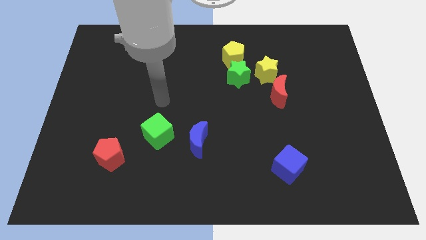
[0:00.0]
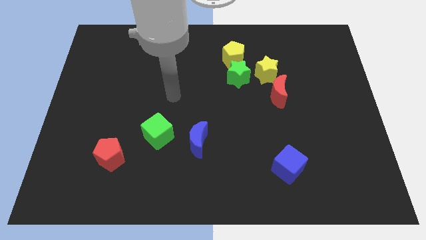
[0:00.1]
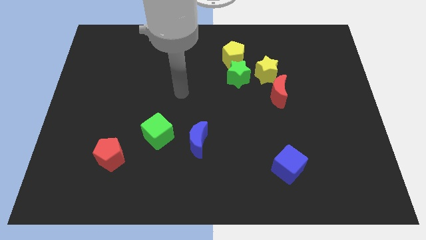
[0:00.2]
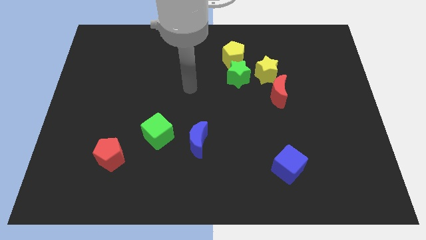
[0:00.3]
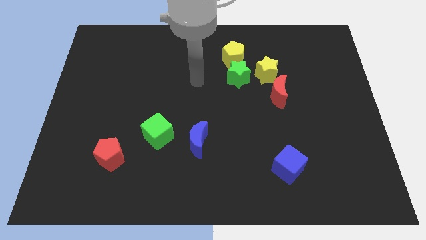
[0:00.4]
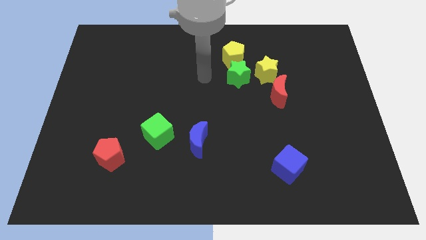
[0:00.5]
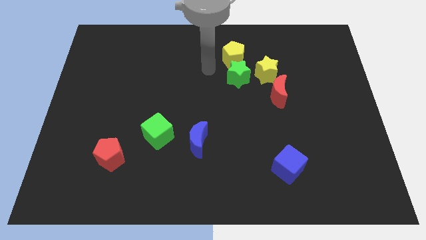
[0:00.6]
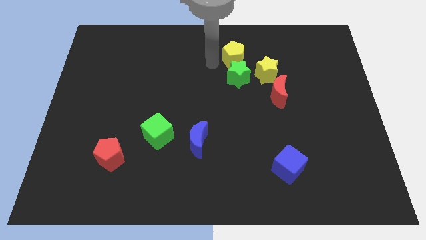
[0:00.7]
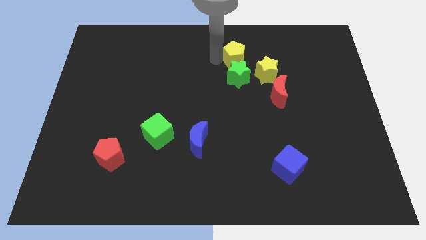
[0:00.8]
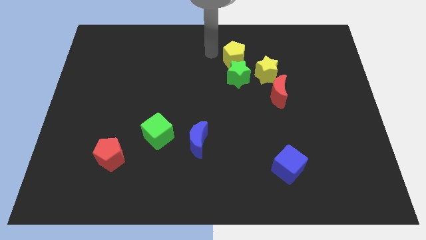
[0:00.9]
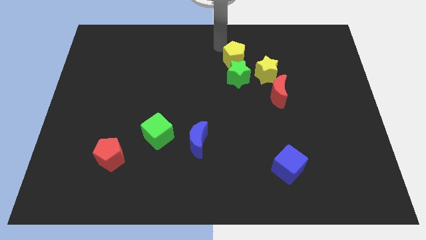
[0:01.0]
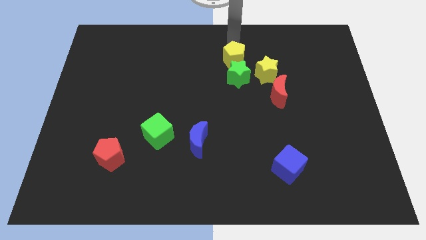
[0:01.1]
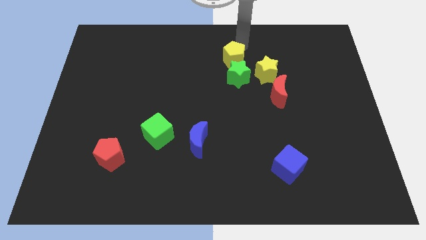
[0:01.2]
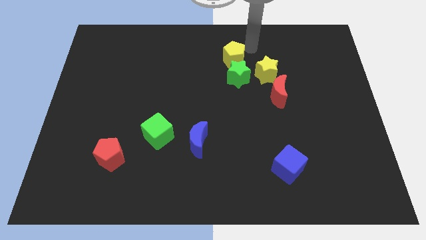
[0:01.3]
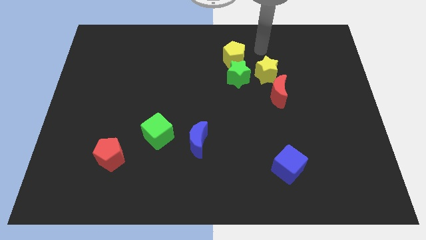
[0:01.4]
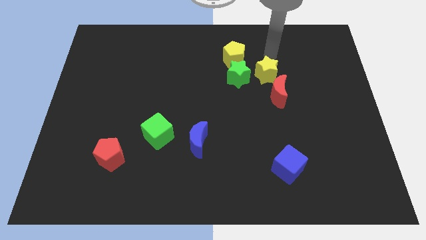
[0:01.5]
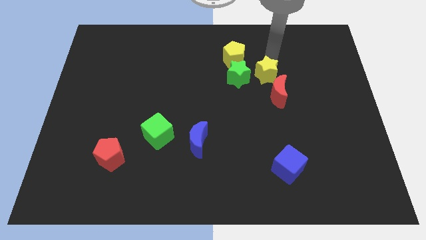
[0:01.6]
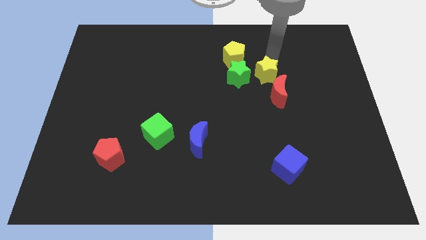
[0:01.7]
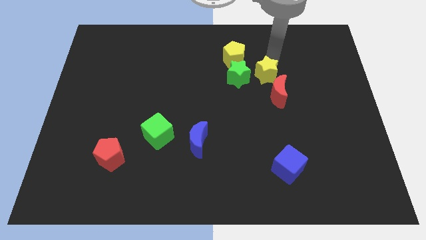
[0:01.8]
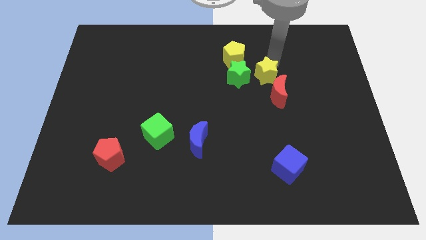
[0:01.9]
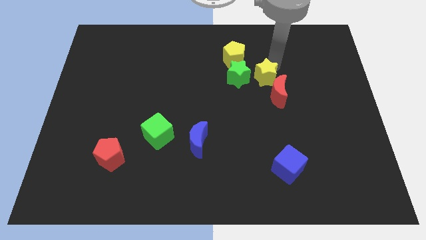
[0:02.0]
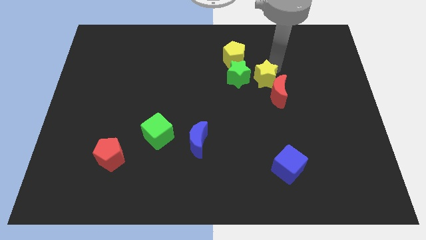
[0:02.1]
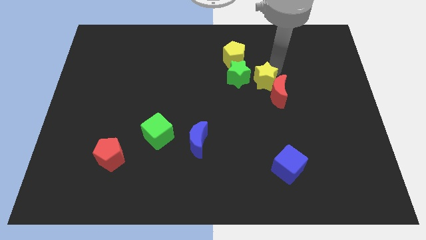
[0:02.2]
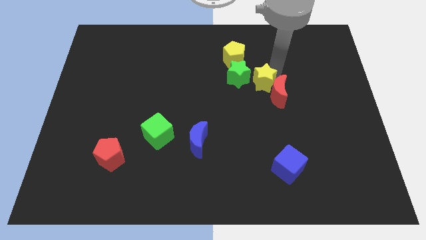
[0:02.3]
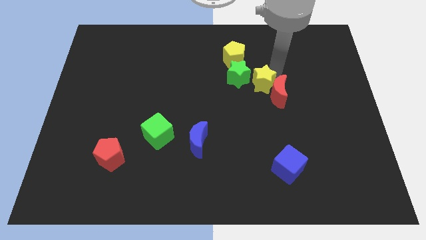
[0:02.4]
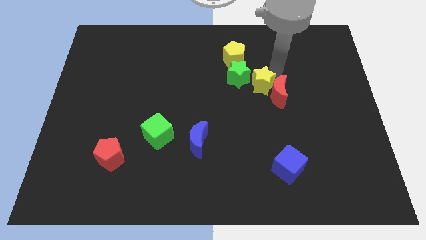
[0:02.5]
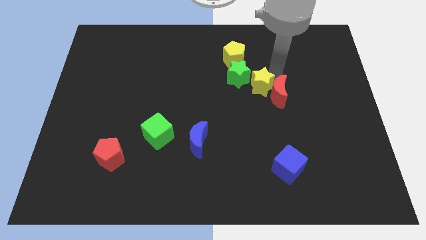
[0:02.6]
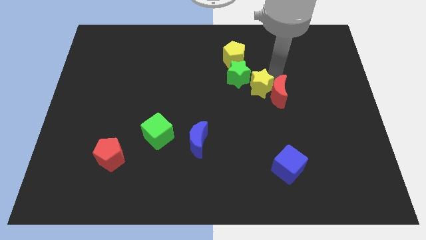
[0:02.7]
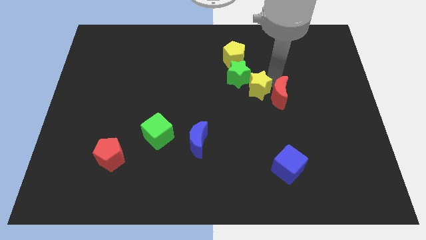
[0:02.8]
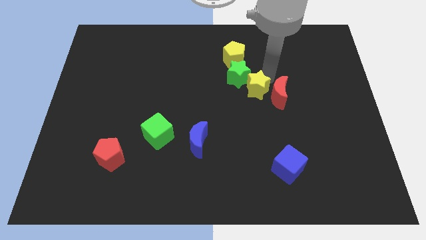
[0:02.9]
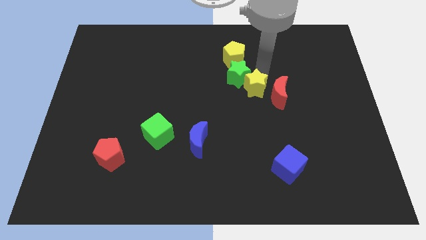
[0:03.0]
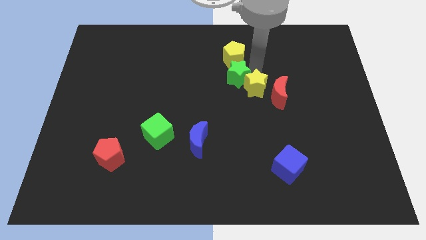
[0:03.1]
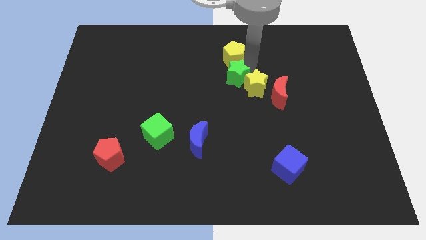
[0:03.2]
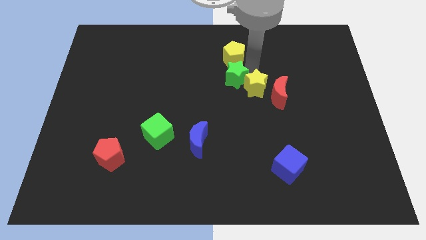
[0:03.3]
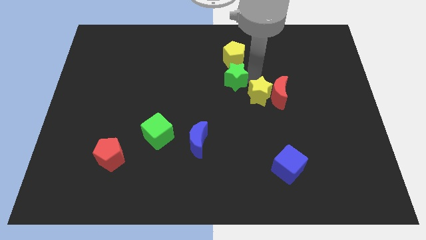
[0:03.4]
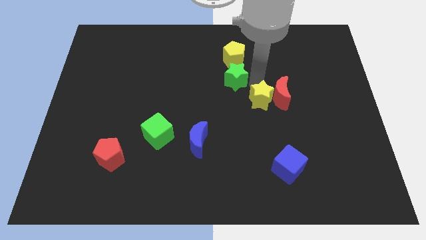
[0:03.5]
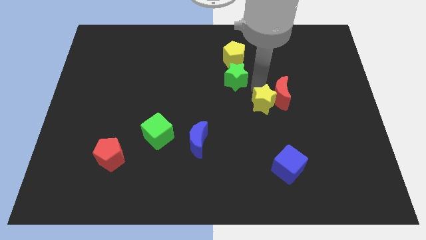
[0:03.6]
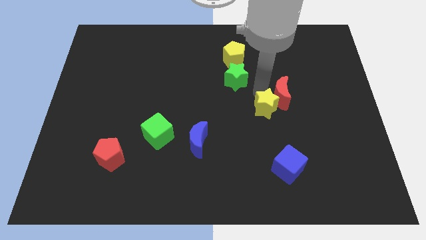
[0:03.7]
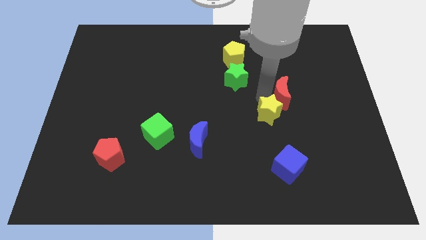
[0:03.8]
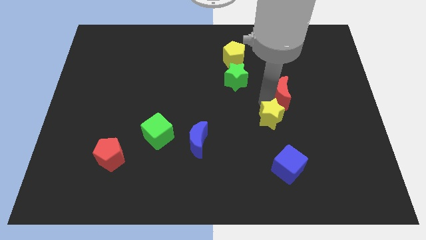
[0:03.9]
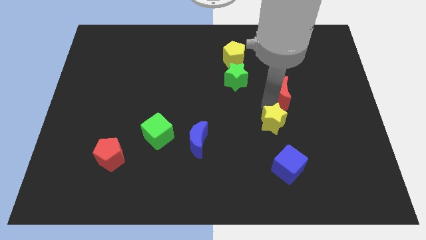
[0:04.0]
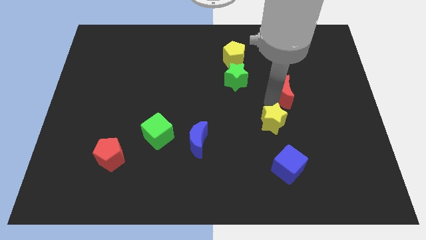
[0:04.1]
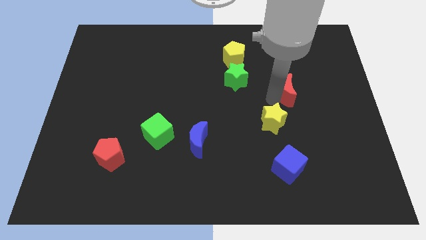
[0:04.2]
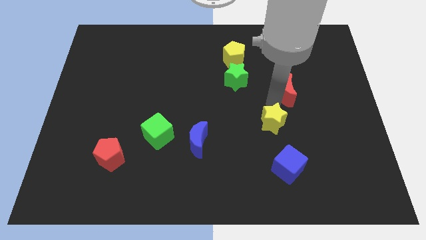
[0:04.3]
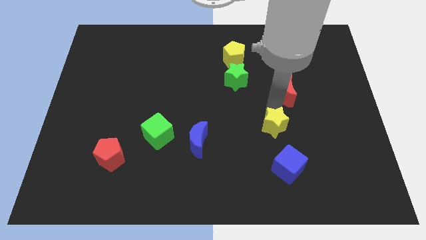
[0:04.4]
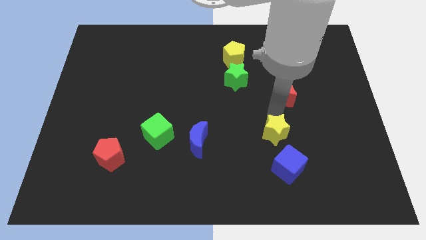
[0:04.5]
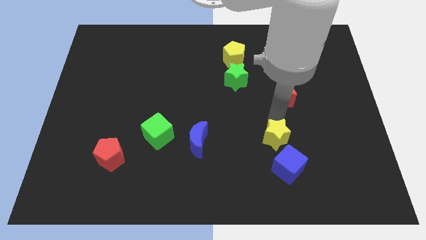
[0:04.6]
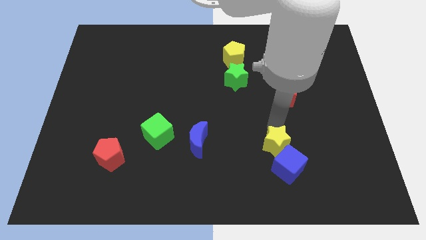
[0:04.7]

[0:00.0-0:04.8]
slide the yellow star next to the blue cube

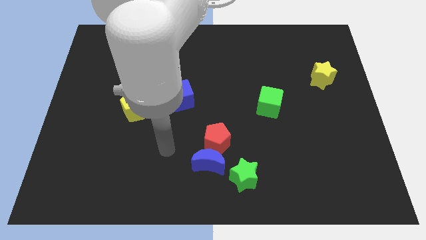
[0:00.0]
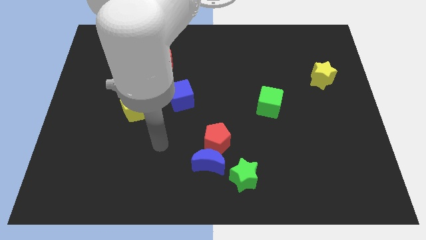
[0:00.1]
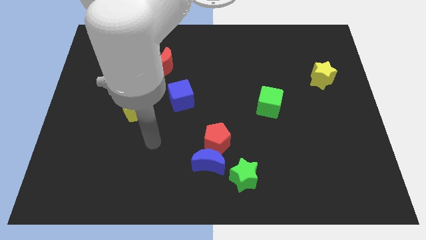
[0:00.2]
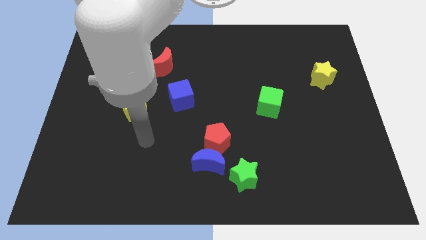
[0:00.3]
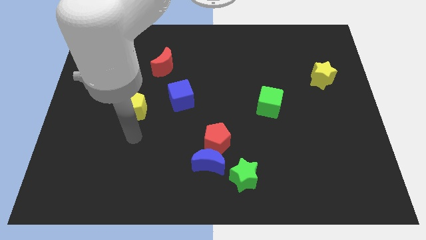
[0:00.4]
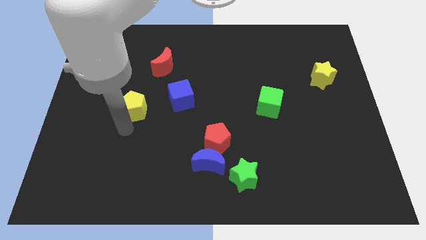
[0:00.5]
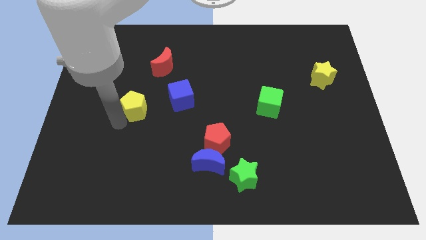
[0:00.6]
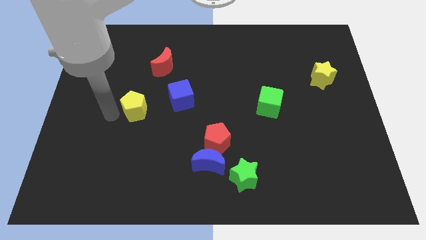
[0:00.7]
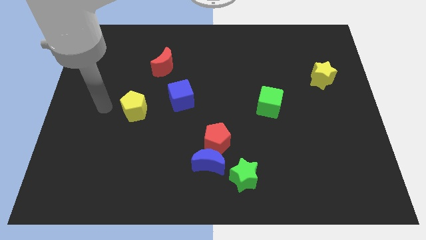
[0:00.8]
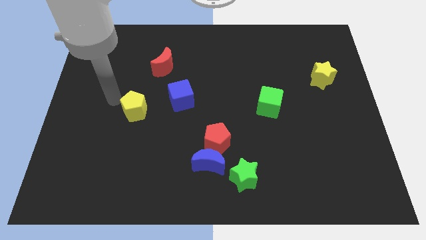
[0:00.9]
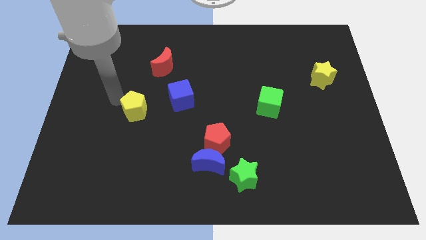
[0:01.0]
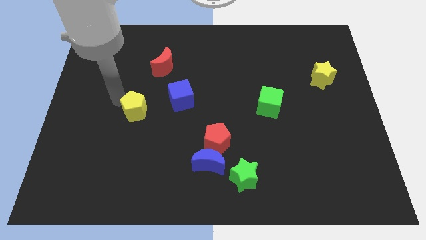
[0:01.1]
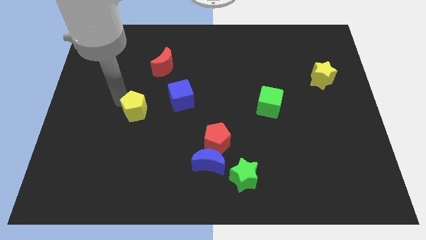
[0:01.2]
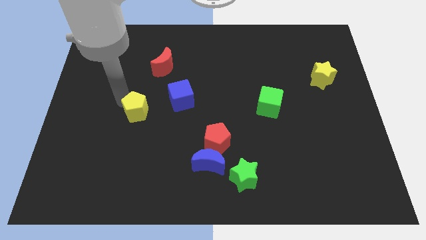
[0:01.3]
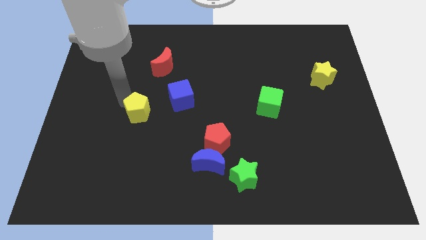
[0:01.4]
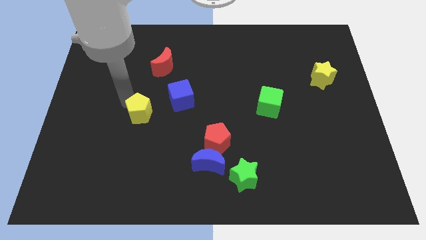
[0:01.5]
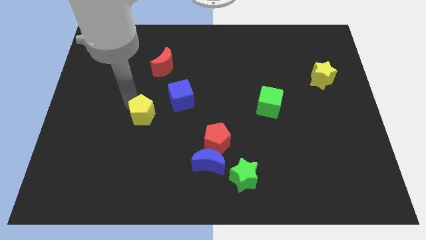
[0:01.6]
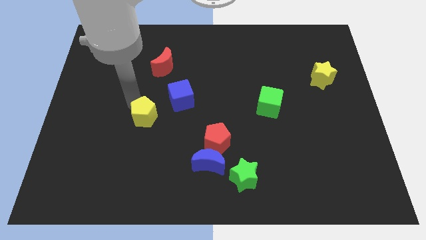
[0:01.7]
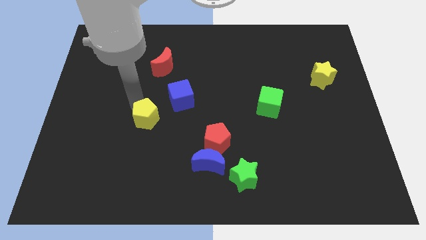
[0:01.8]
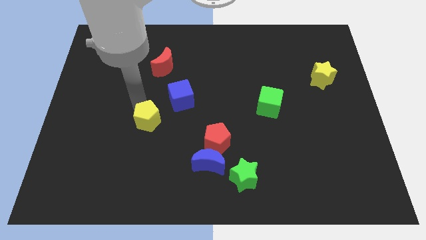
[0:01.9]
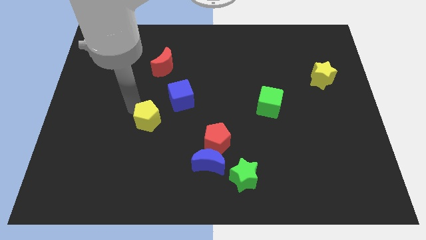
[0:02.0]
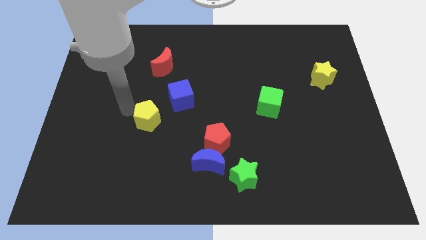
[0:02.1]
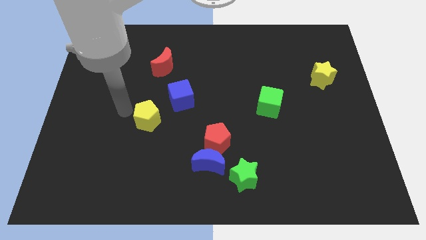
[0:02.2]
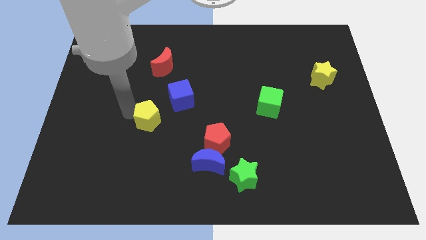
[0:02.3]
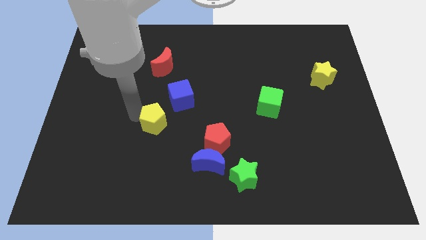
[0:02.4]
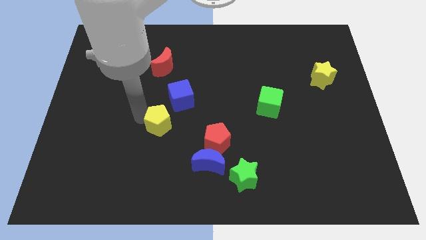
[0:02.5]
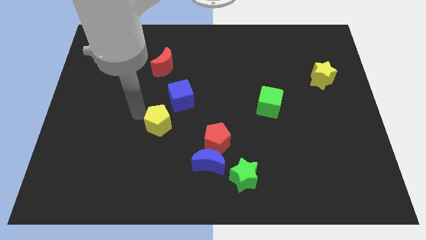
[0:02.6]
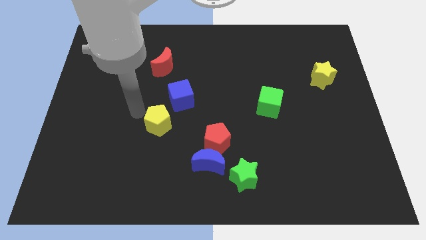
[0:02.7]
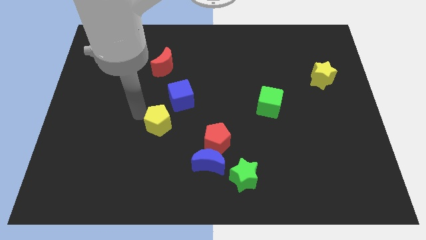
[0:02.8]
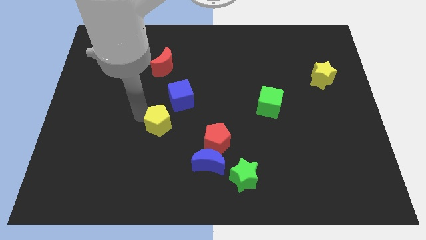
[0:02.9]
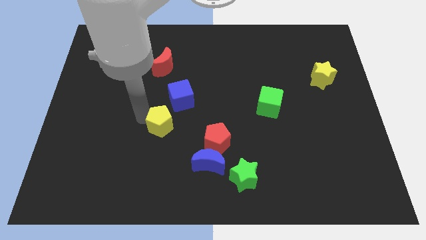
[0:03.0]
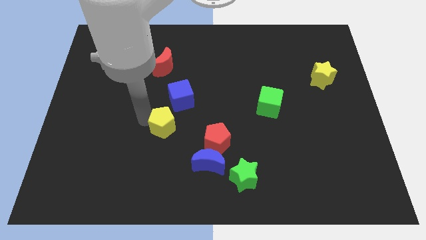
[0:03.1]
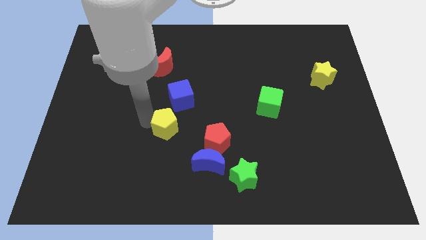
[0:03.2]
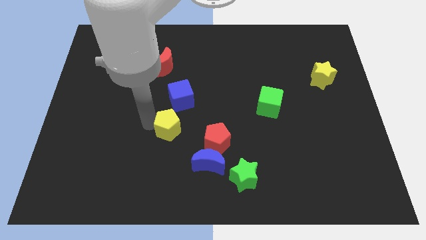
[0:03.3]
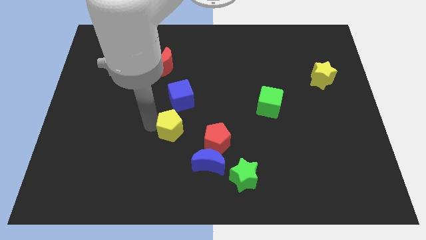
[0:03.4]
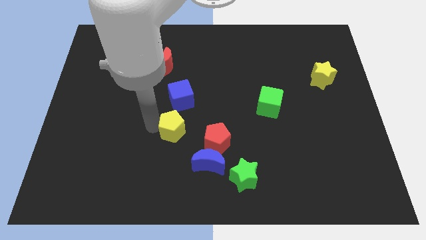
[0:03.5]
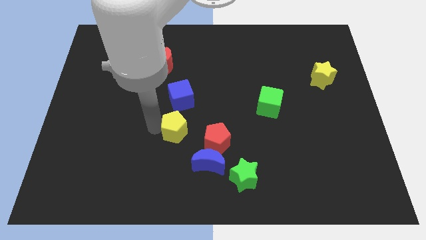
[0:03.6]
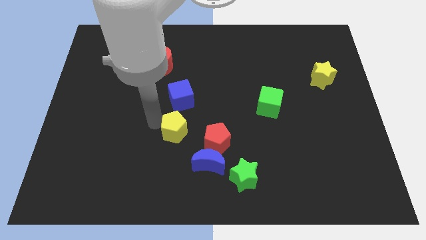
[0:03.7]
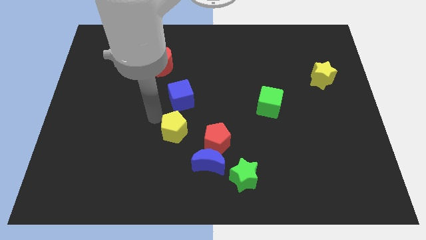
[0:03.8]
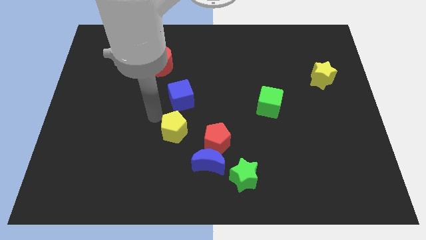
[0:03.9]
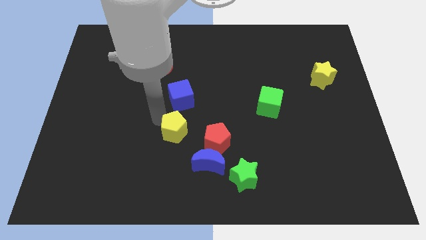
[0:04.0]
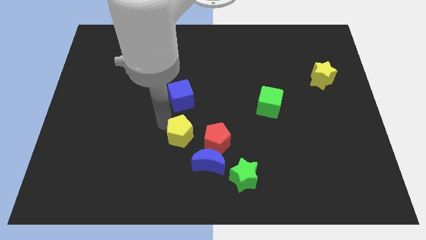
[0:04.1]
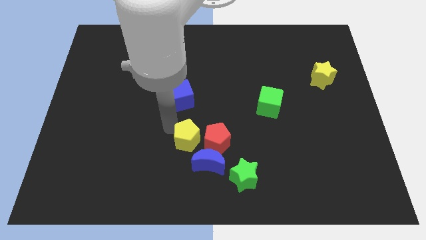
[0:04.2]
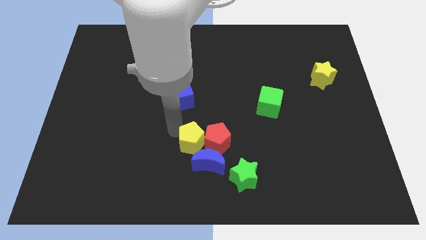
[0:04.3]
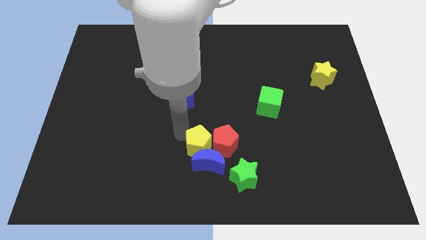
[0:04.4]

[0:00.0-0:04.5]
slide the yellow pentagon towards the blue moon
